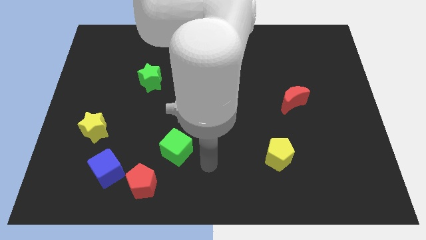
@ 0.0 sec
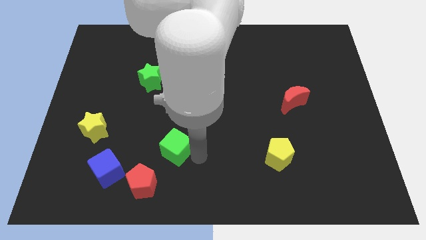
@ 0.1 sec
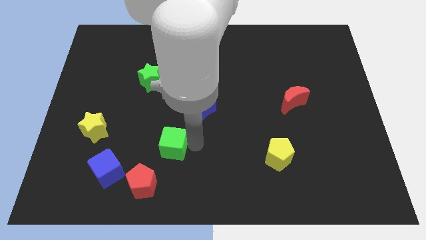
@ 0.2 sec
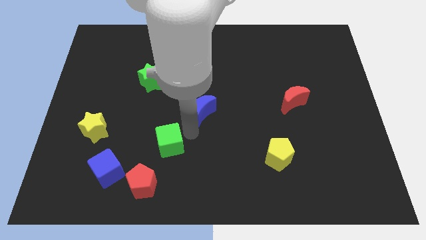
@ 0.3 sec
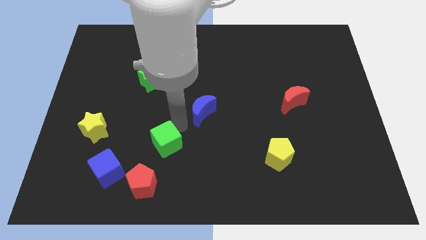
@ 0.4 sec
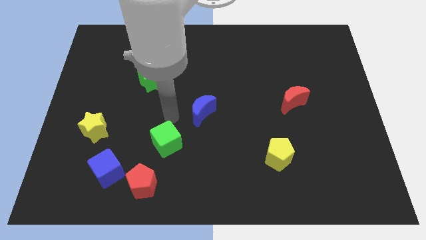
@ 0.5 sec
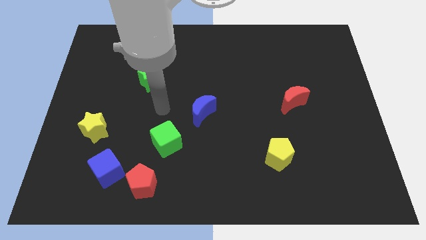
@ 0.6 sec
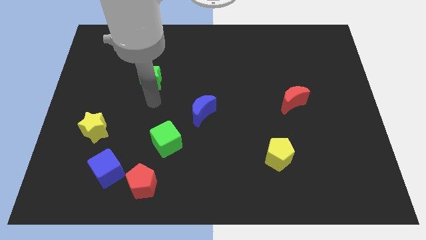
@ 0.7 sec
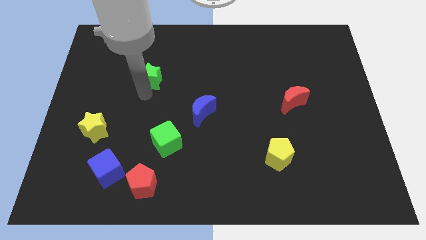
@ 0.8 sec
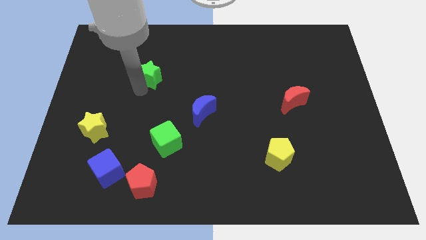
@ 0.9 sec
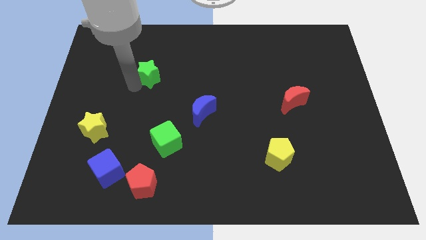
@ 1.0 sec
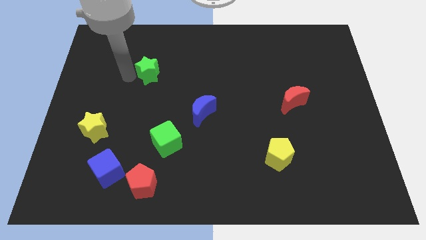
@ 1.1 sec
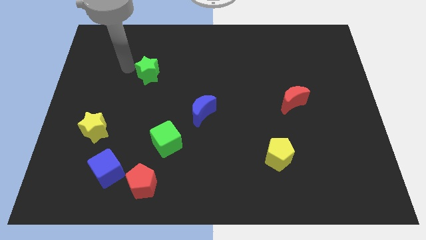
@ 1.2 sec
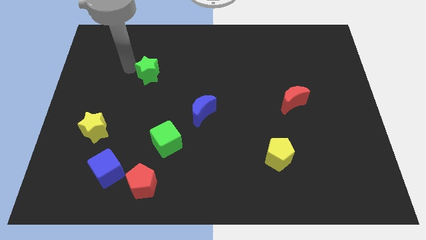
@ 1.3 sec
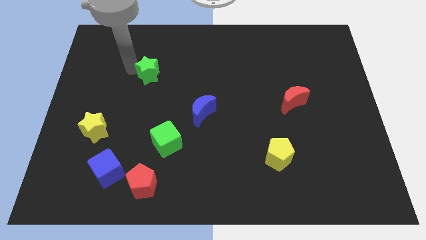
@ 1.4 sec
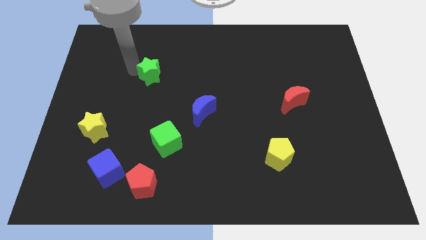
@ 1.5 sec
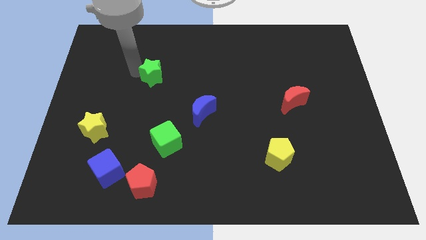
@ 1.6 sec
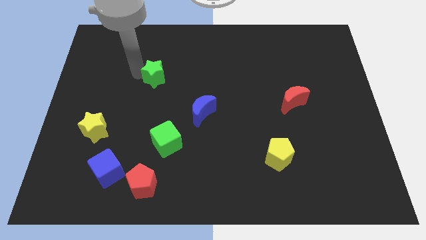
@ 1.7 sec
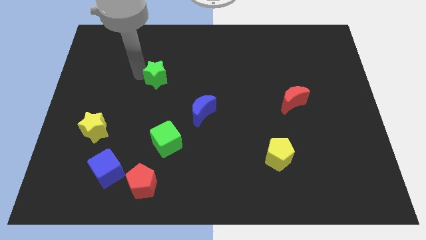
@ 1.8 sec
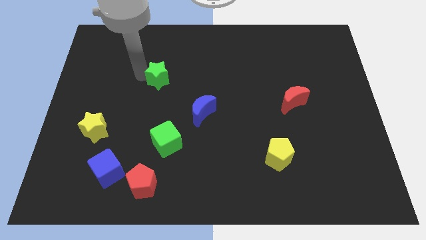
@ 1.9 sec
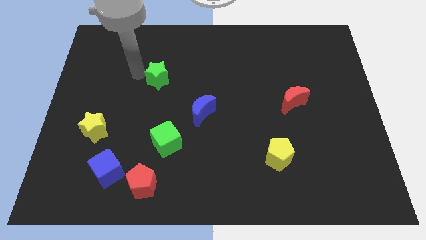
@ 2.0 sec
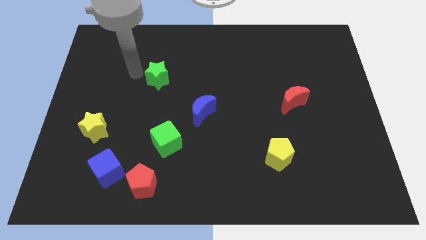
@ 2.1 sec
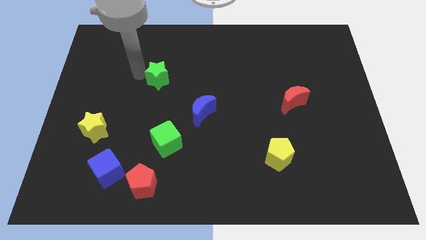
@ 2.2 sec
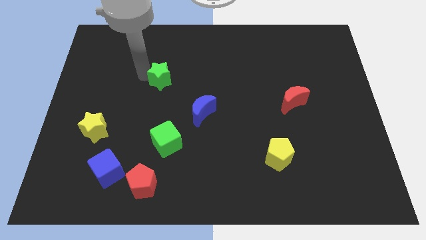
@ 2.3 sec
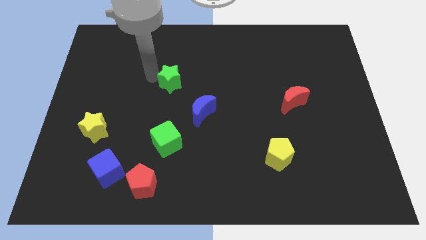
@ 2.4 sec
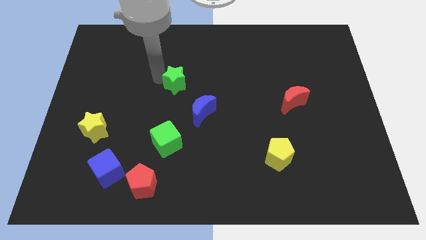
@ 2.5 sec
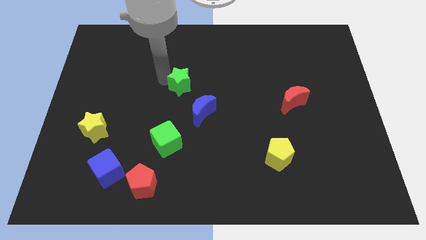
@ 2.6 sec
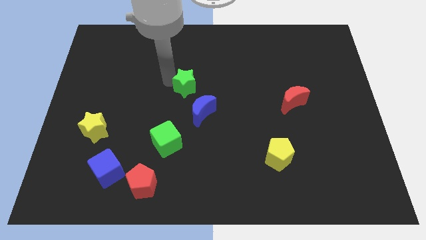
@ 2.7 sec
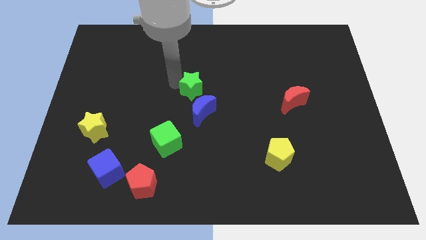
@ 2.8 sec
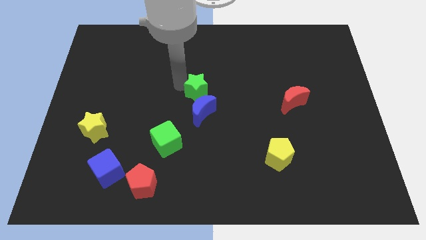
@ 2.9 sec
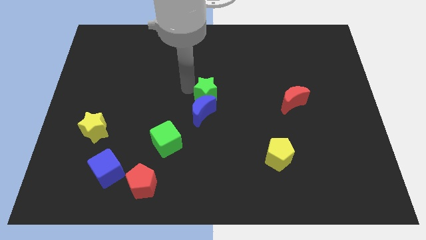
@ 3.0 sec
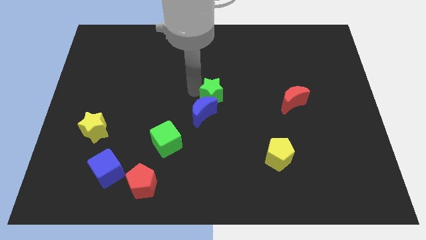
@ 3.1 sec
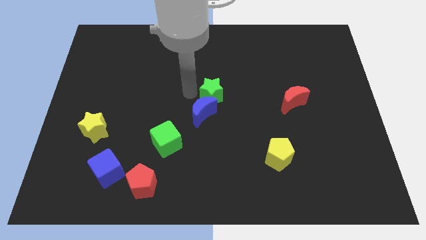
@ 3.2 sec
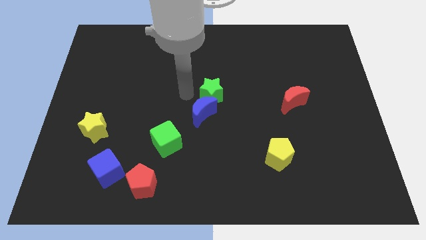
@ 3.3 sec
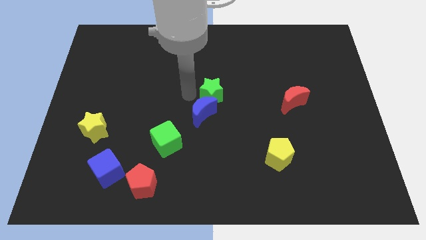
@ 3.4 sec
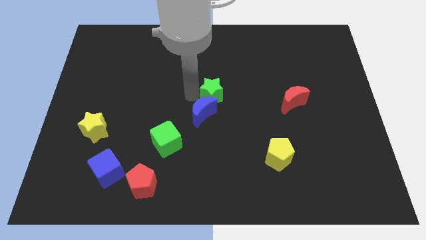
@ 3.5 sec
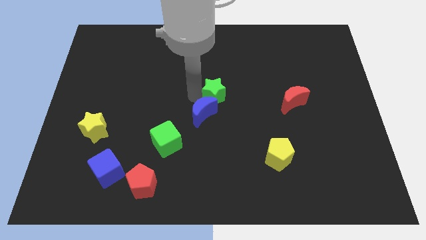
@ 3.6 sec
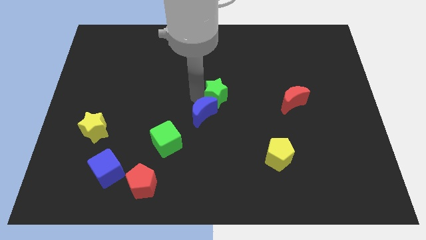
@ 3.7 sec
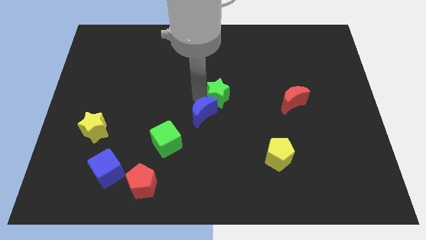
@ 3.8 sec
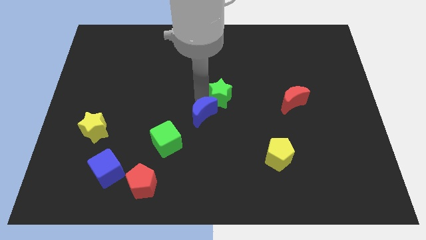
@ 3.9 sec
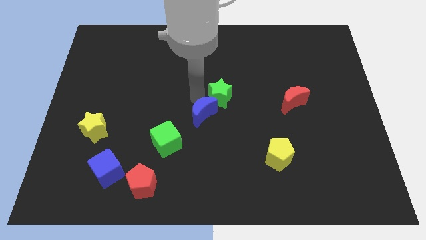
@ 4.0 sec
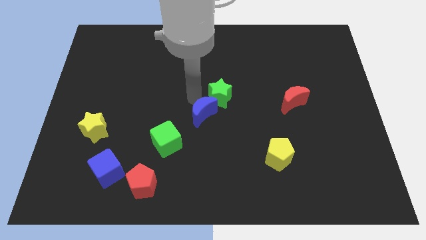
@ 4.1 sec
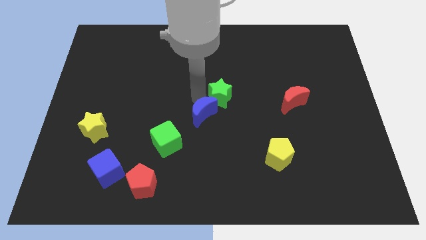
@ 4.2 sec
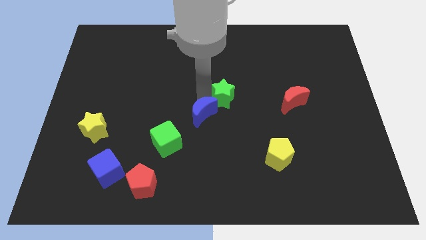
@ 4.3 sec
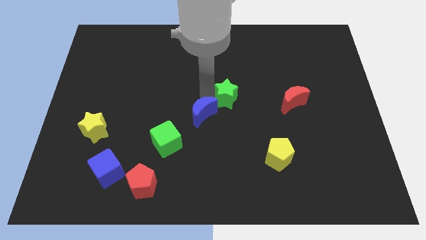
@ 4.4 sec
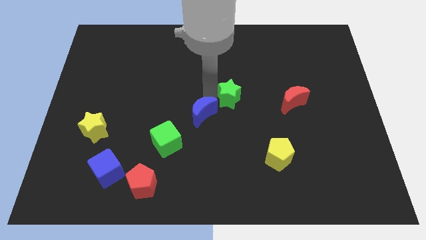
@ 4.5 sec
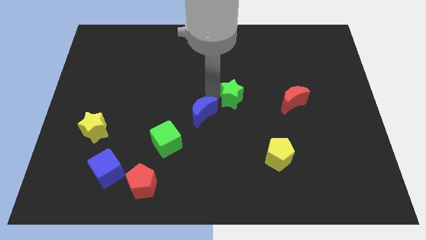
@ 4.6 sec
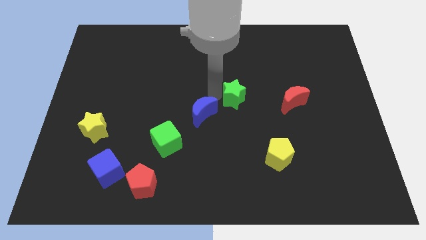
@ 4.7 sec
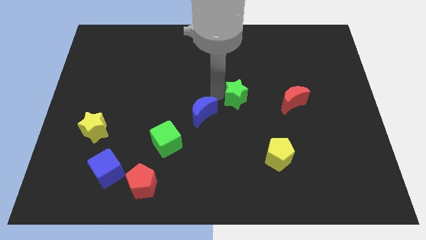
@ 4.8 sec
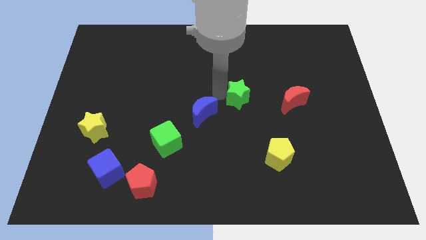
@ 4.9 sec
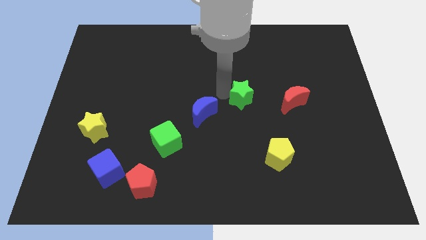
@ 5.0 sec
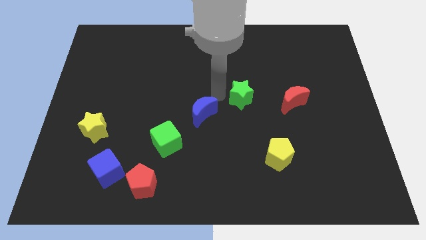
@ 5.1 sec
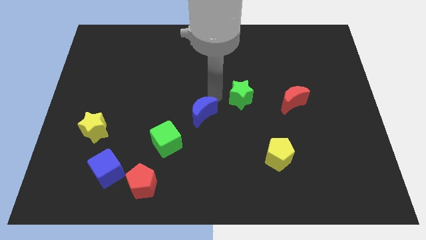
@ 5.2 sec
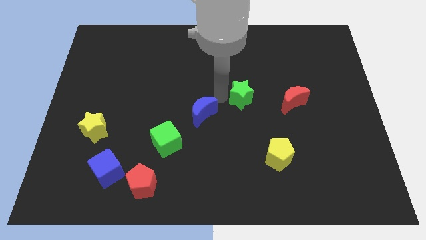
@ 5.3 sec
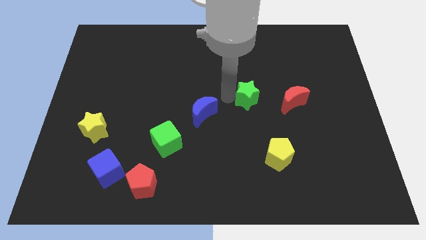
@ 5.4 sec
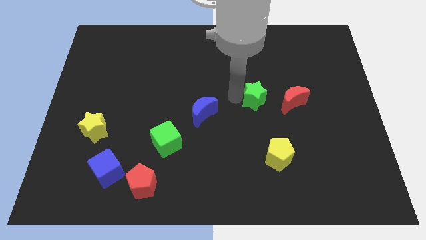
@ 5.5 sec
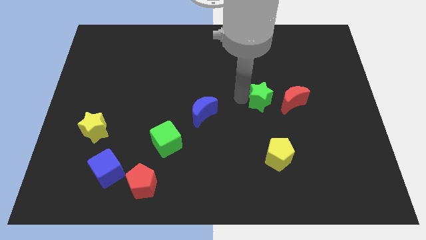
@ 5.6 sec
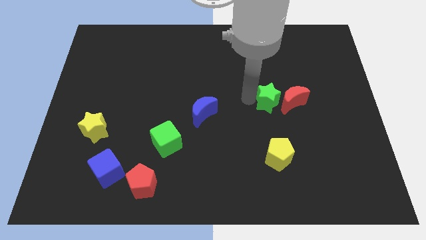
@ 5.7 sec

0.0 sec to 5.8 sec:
slide the green star next to the red moon
